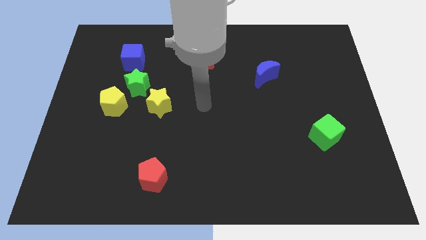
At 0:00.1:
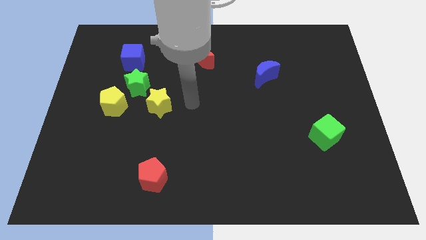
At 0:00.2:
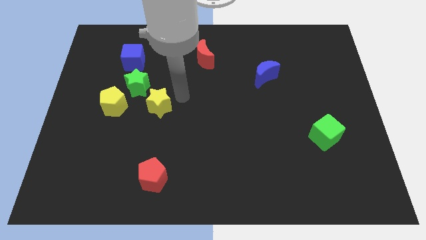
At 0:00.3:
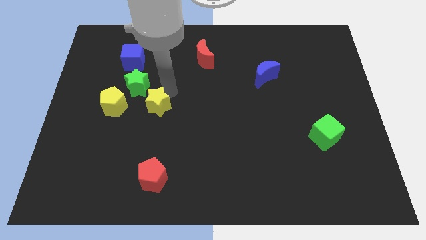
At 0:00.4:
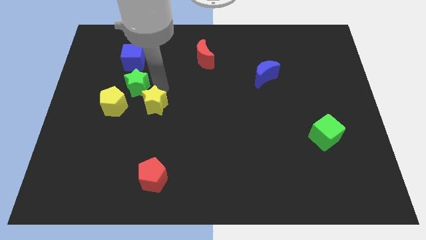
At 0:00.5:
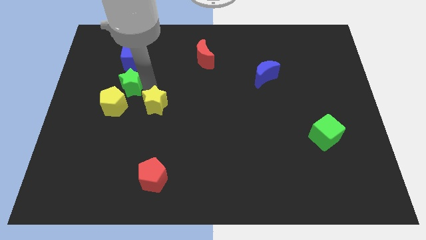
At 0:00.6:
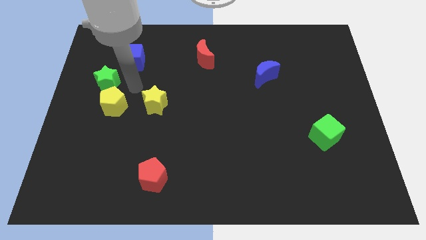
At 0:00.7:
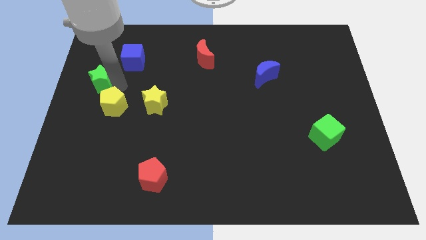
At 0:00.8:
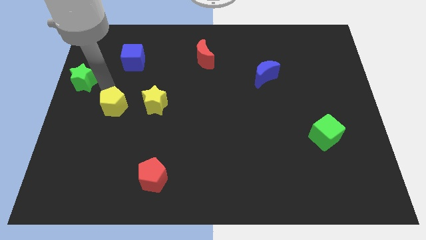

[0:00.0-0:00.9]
pull the yellow pentagon apart from the green star

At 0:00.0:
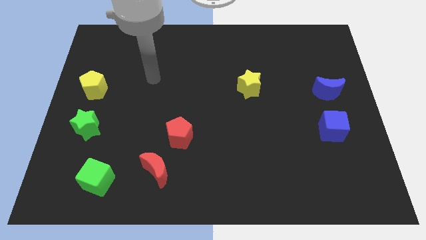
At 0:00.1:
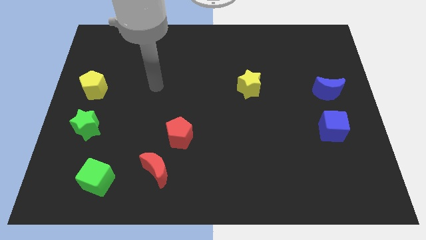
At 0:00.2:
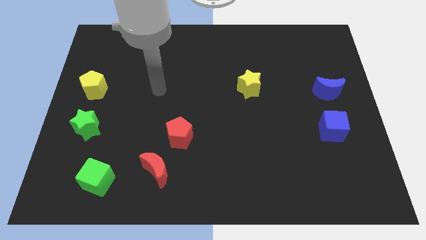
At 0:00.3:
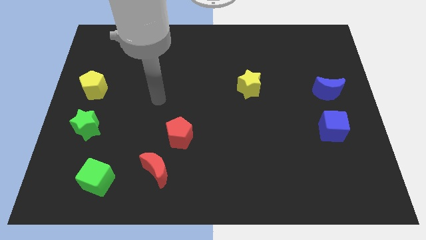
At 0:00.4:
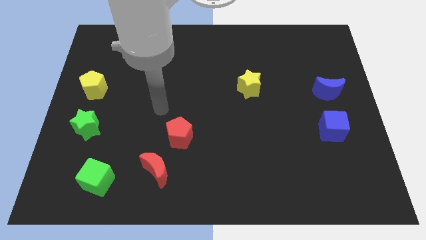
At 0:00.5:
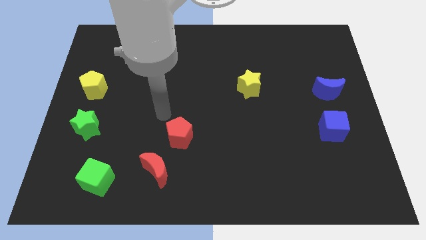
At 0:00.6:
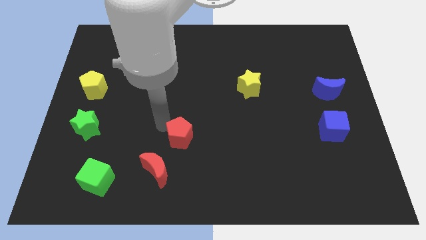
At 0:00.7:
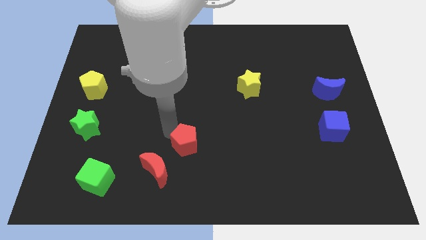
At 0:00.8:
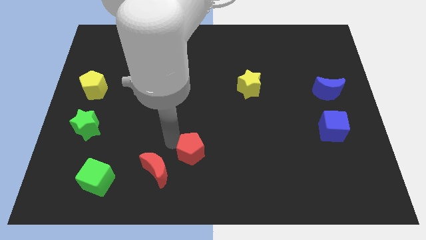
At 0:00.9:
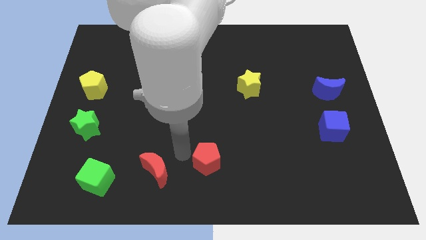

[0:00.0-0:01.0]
pull the red moon apart from the red pentagon

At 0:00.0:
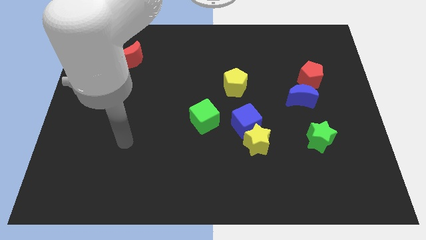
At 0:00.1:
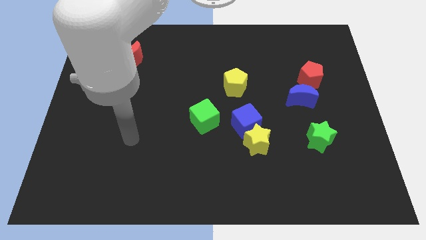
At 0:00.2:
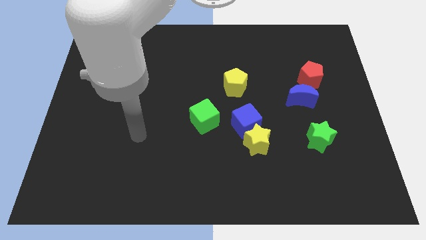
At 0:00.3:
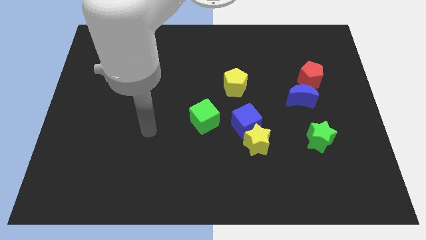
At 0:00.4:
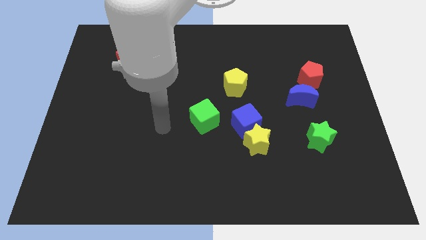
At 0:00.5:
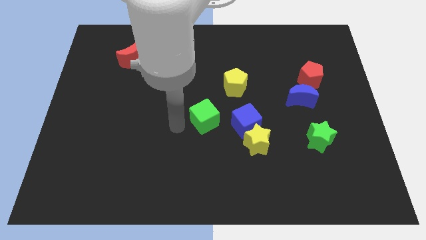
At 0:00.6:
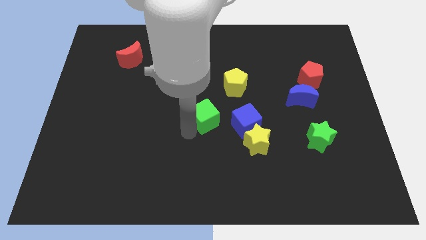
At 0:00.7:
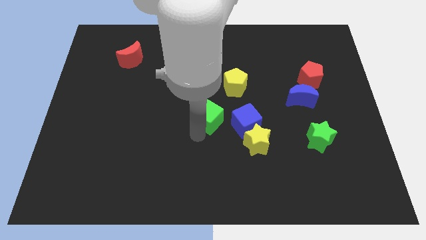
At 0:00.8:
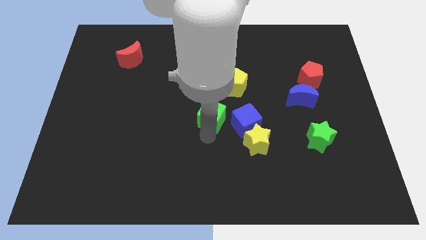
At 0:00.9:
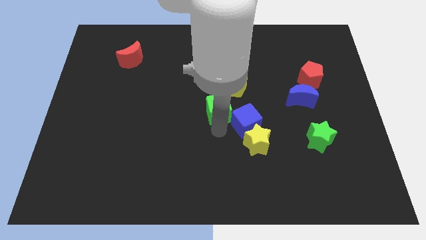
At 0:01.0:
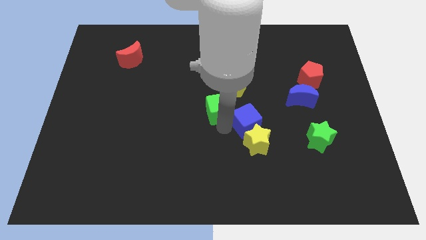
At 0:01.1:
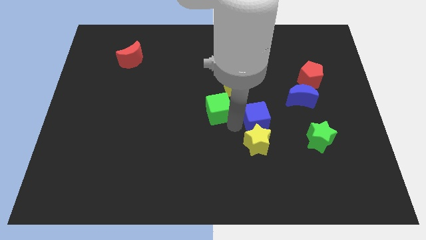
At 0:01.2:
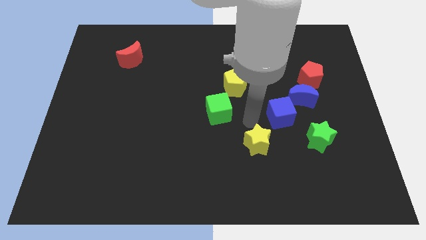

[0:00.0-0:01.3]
pull the yellow star apart from the blue cube

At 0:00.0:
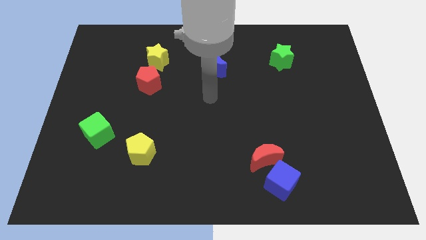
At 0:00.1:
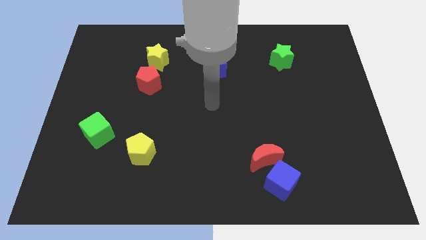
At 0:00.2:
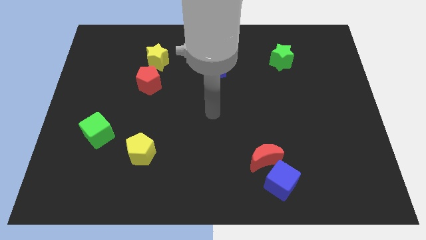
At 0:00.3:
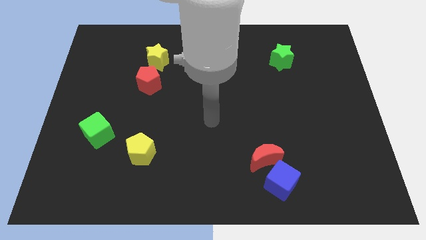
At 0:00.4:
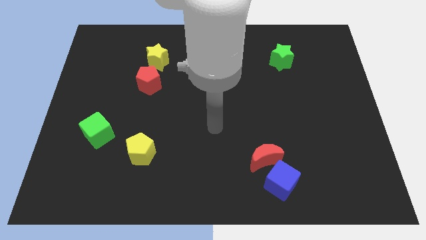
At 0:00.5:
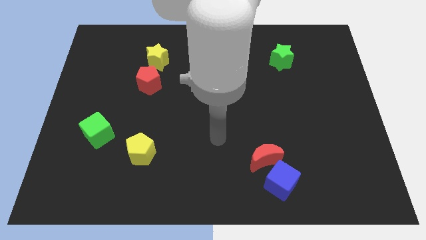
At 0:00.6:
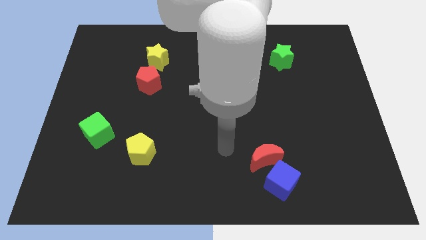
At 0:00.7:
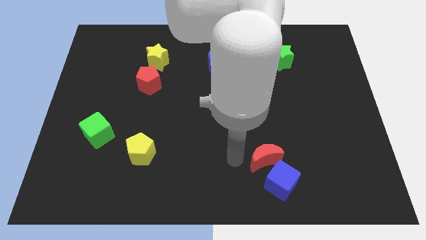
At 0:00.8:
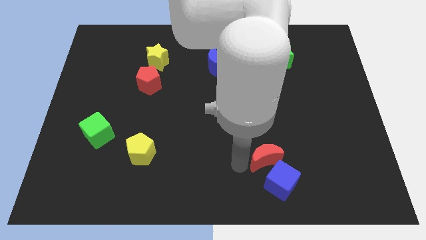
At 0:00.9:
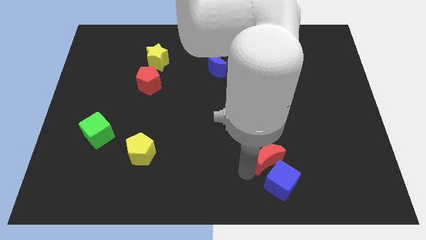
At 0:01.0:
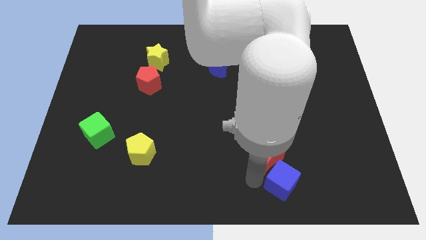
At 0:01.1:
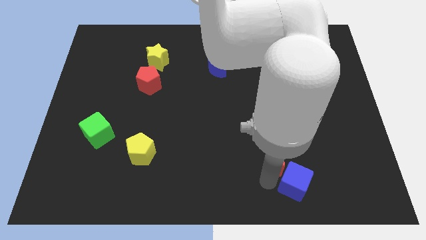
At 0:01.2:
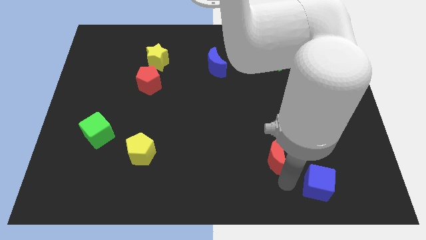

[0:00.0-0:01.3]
separate the red moon from the blue cube

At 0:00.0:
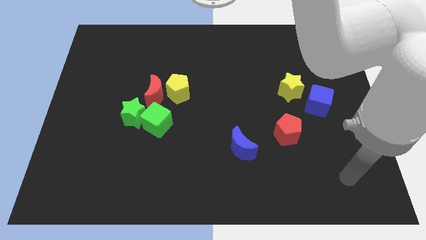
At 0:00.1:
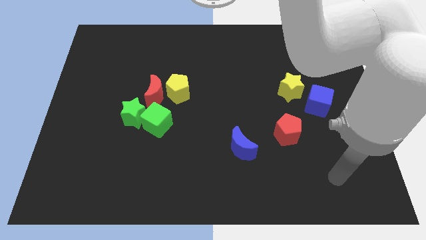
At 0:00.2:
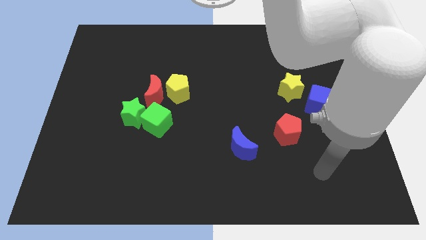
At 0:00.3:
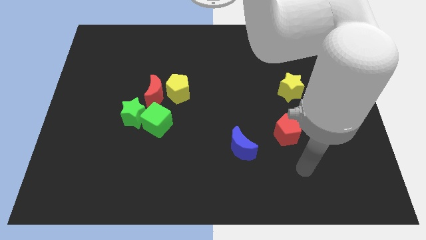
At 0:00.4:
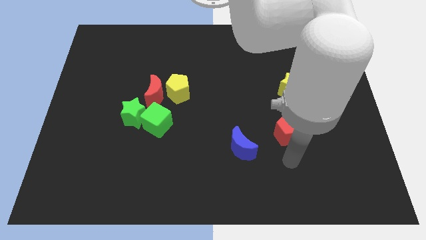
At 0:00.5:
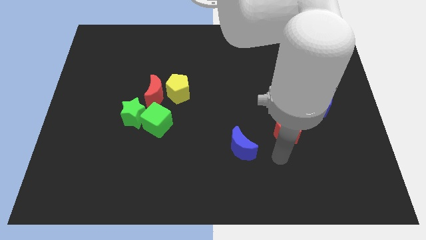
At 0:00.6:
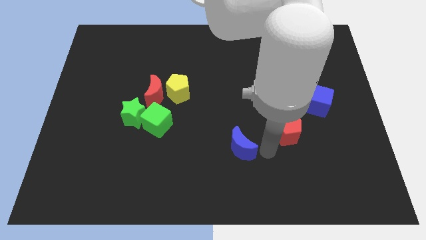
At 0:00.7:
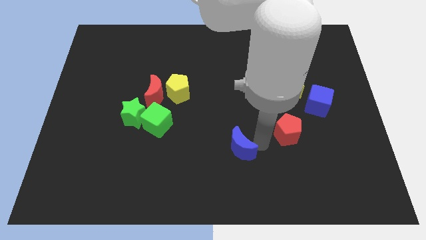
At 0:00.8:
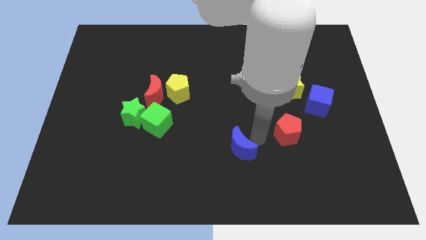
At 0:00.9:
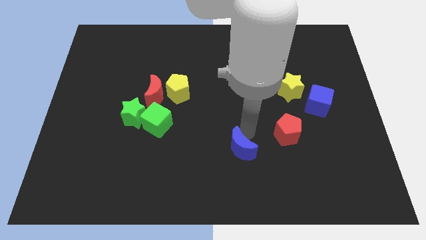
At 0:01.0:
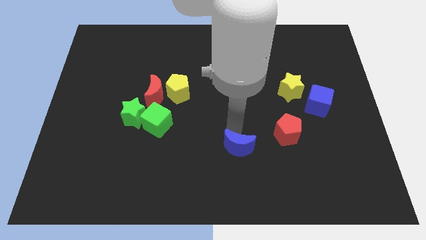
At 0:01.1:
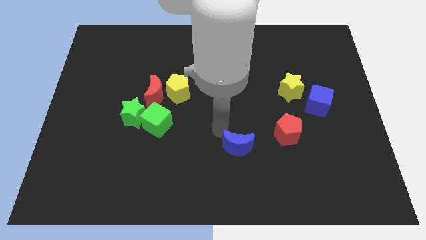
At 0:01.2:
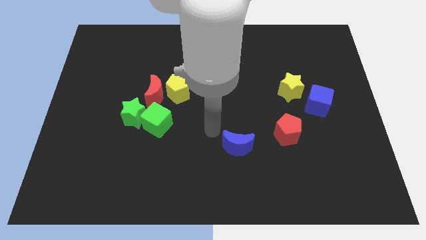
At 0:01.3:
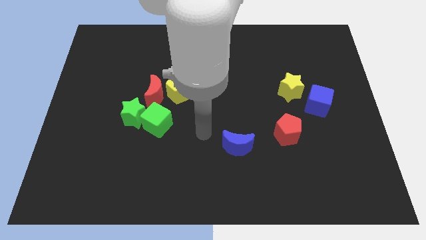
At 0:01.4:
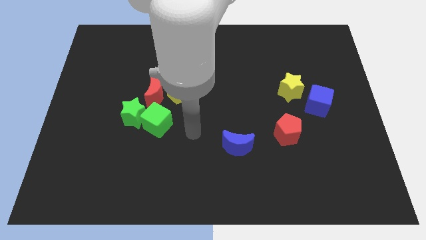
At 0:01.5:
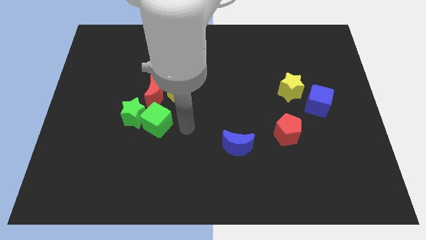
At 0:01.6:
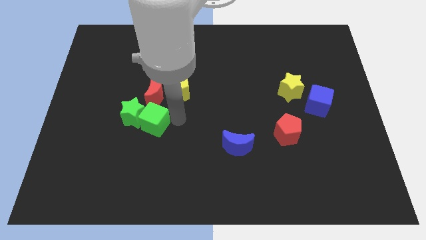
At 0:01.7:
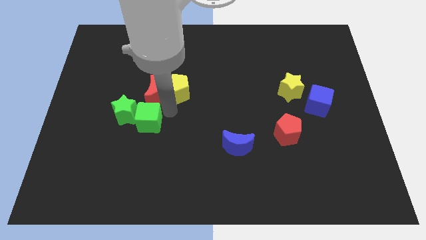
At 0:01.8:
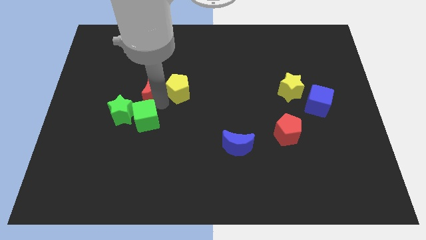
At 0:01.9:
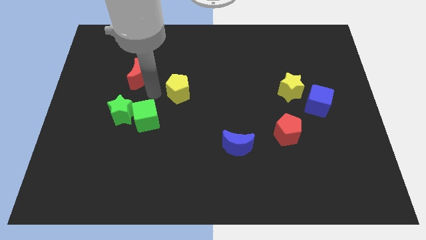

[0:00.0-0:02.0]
separate the yellow pentagon from the red moon

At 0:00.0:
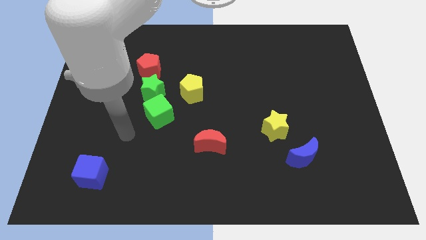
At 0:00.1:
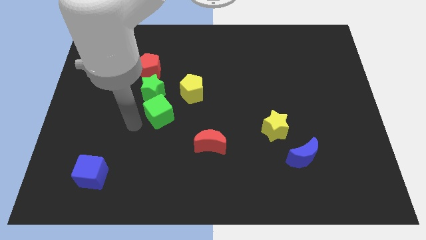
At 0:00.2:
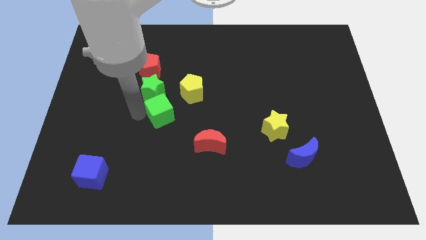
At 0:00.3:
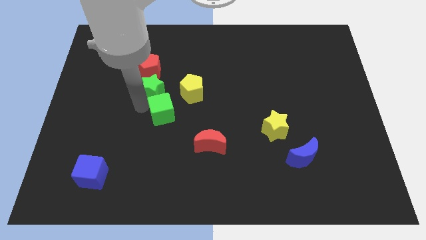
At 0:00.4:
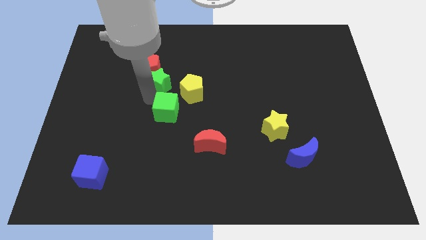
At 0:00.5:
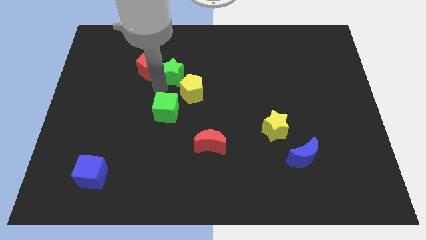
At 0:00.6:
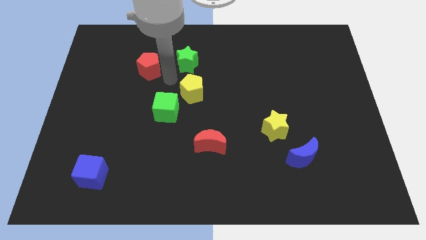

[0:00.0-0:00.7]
pull the red pentagon apart from the green star

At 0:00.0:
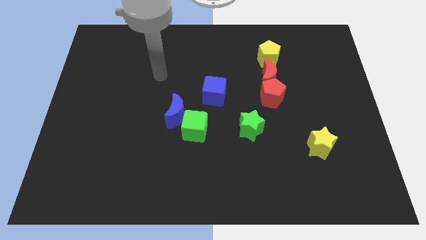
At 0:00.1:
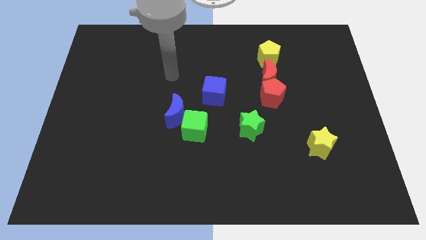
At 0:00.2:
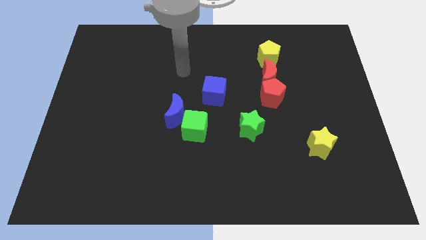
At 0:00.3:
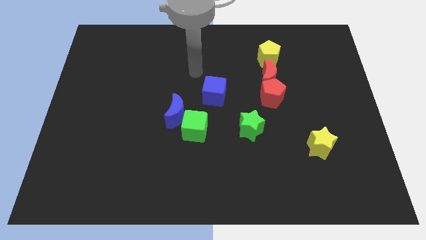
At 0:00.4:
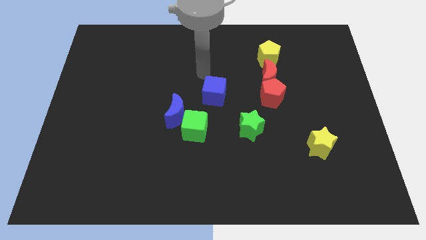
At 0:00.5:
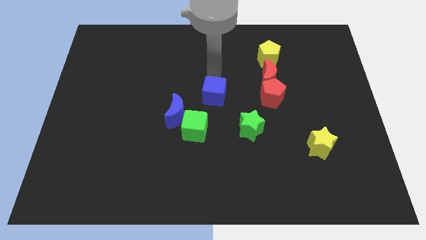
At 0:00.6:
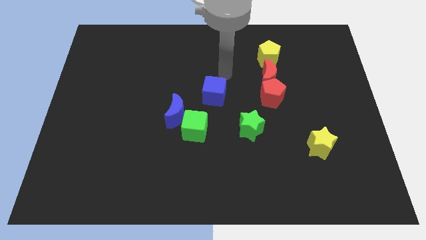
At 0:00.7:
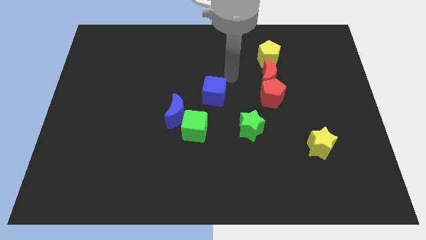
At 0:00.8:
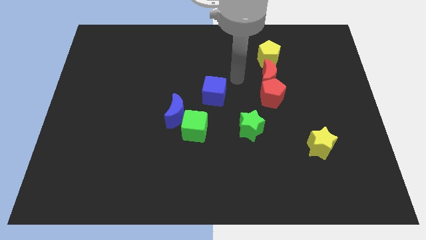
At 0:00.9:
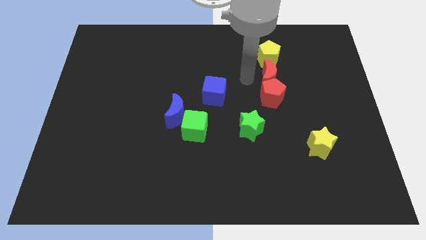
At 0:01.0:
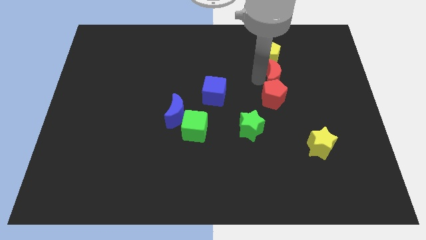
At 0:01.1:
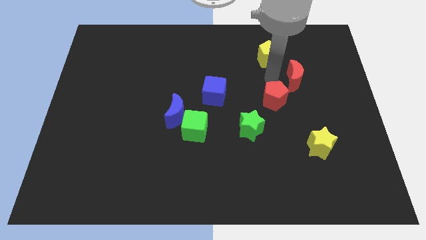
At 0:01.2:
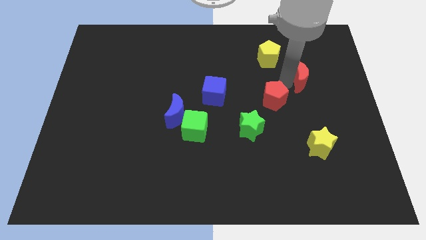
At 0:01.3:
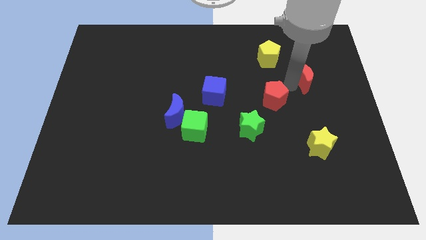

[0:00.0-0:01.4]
move the red pentagon away from the red moon

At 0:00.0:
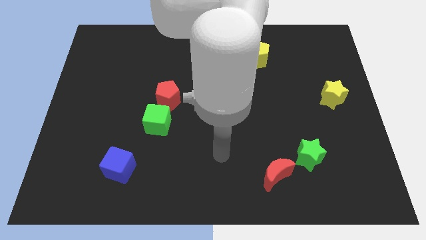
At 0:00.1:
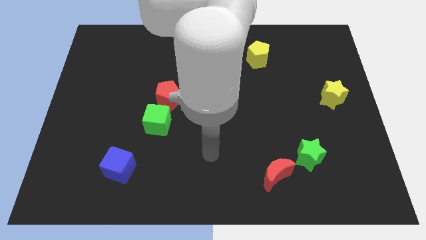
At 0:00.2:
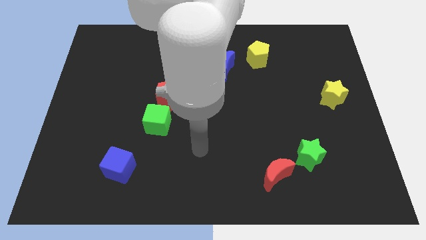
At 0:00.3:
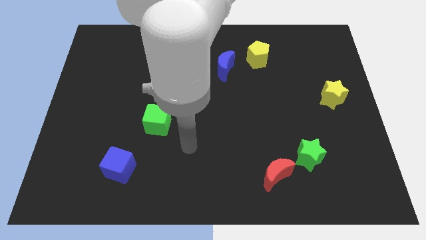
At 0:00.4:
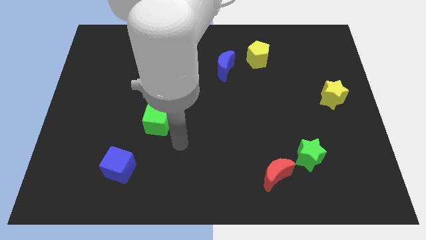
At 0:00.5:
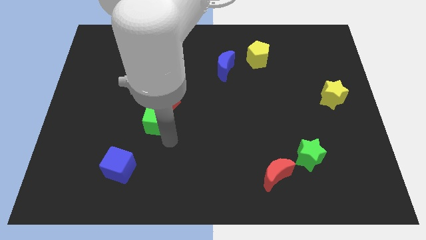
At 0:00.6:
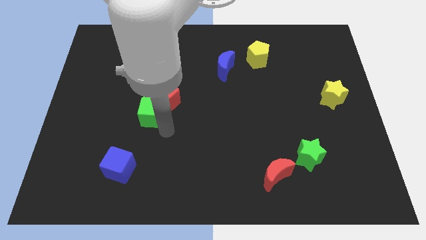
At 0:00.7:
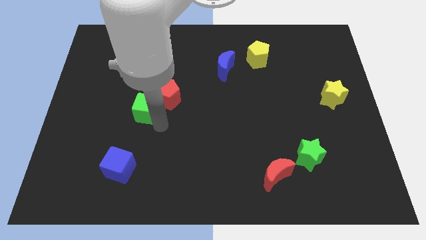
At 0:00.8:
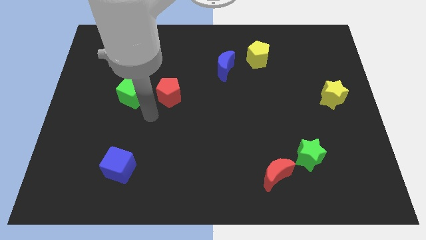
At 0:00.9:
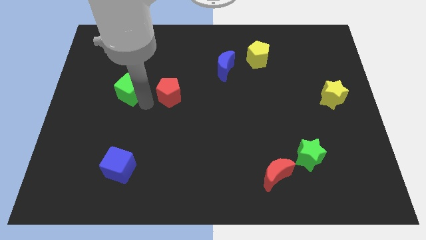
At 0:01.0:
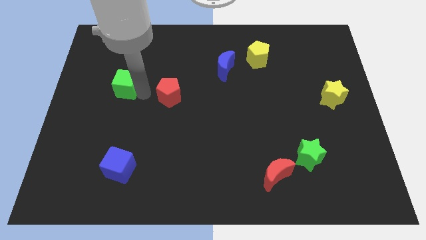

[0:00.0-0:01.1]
pull the red pentagon apart from the green cube
